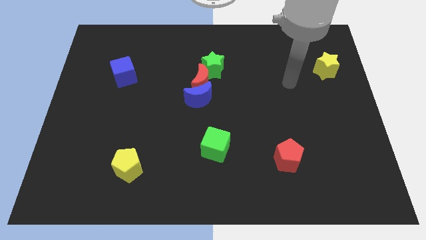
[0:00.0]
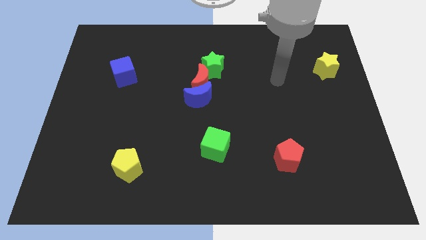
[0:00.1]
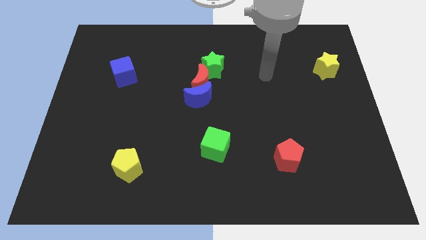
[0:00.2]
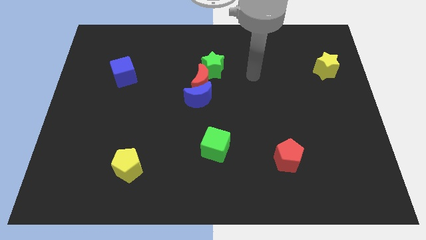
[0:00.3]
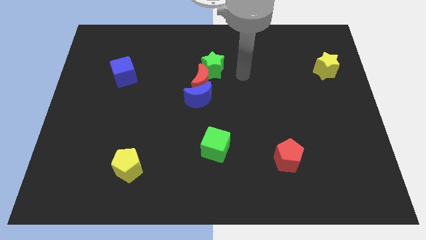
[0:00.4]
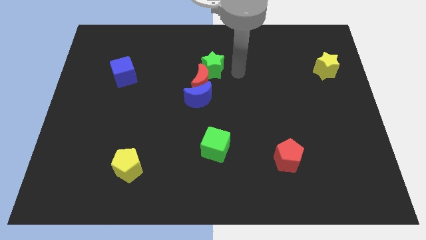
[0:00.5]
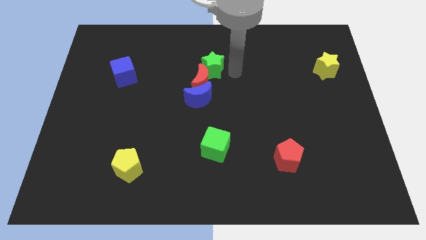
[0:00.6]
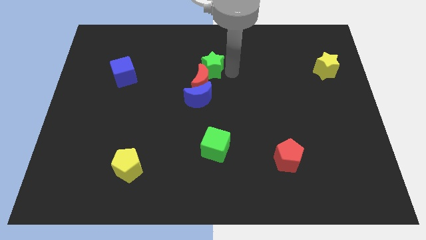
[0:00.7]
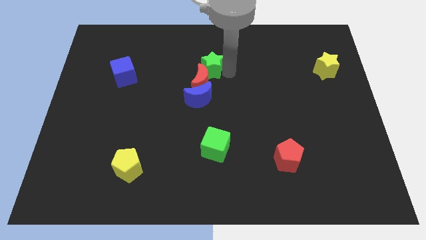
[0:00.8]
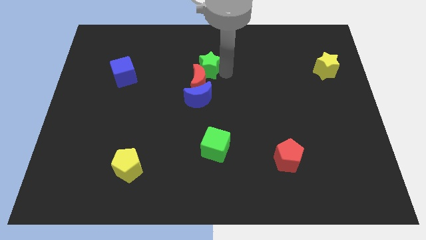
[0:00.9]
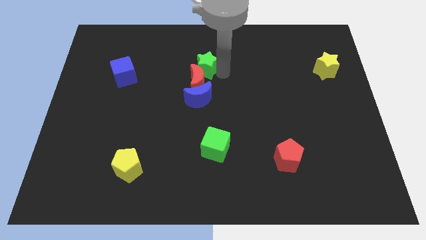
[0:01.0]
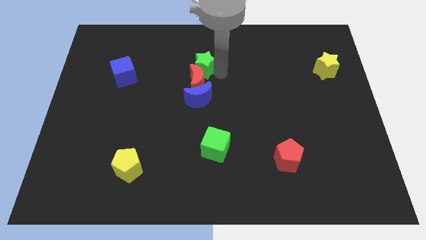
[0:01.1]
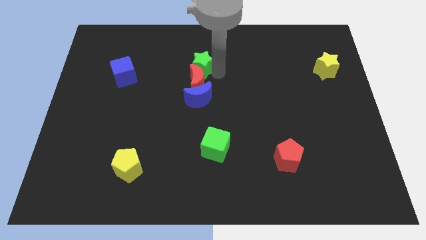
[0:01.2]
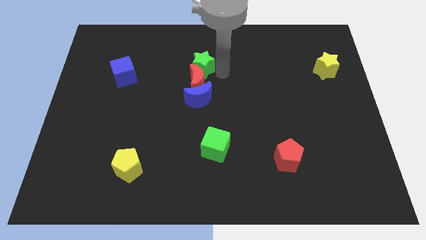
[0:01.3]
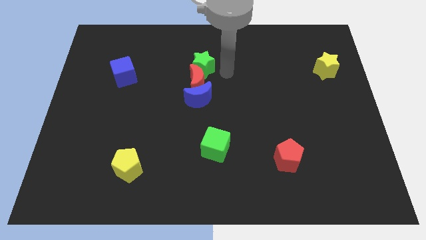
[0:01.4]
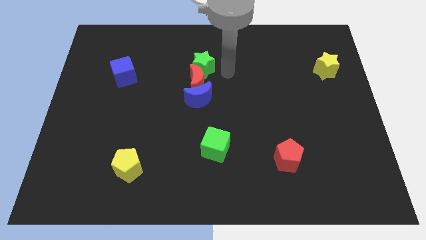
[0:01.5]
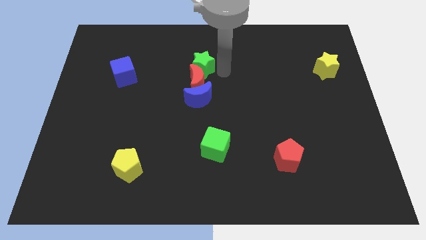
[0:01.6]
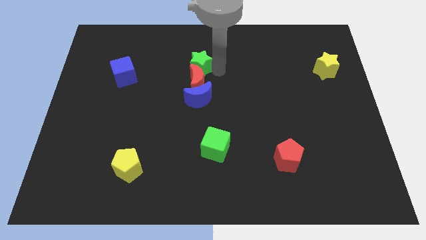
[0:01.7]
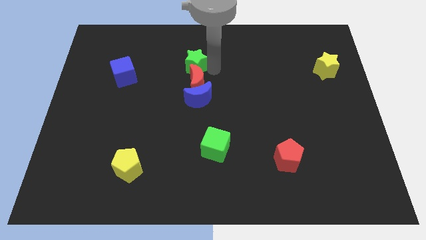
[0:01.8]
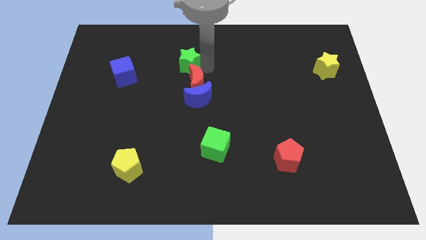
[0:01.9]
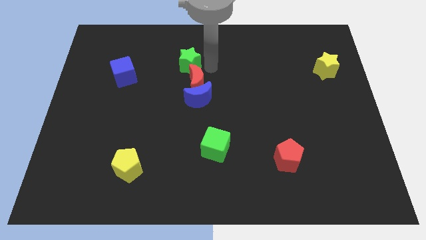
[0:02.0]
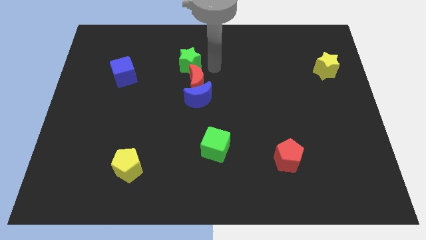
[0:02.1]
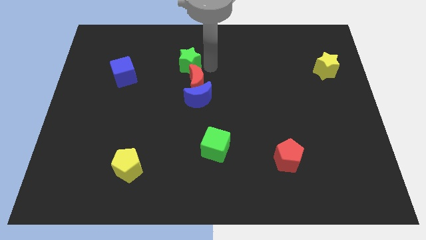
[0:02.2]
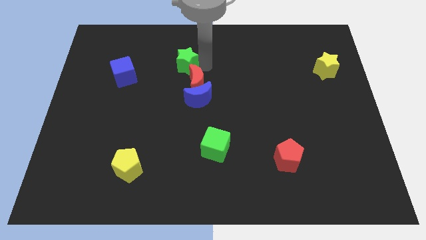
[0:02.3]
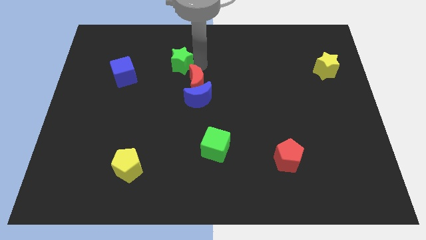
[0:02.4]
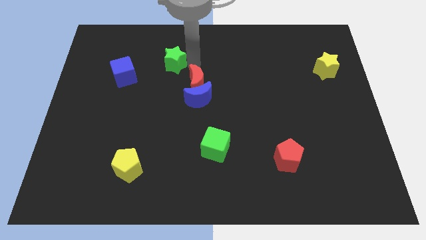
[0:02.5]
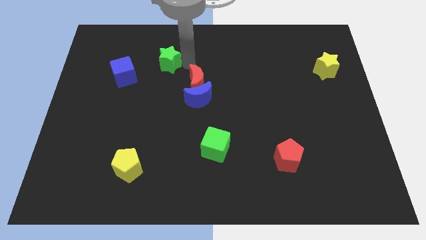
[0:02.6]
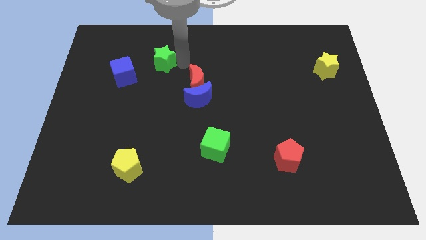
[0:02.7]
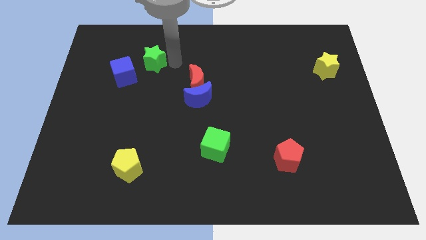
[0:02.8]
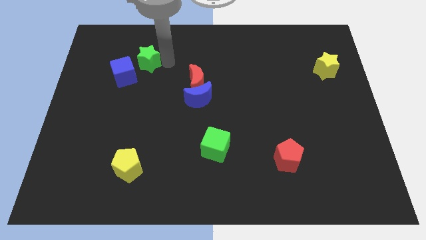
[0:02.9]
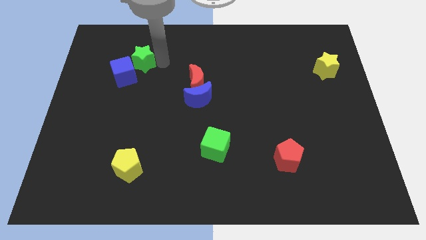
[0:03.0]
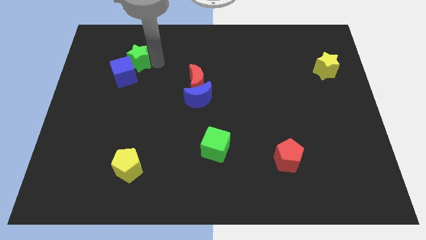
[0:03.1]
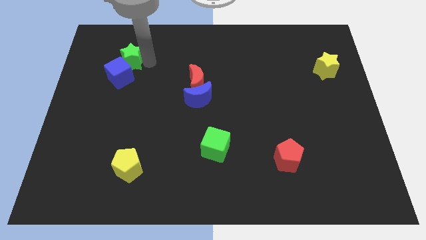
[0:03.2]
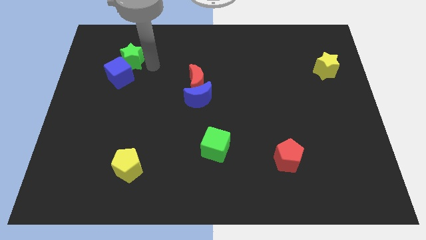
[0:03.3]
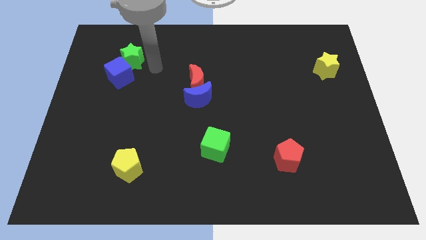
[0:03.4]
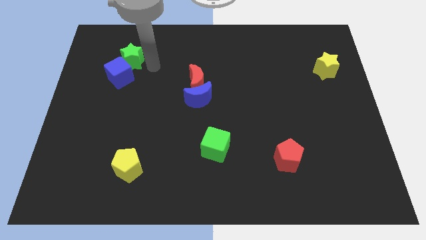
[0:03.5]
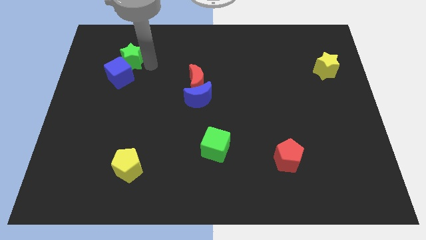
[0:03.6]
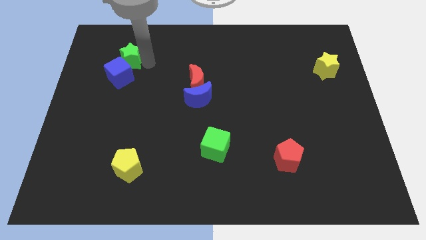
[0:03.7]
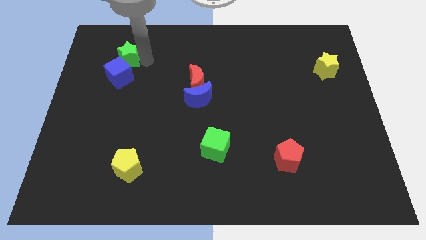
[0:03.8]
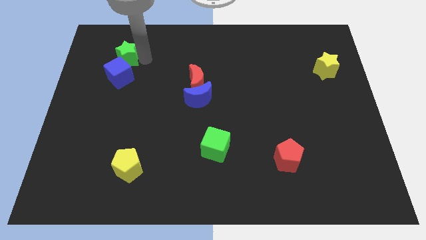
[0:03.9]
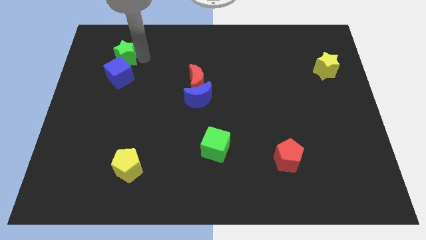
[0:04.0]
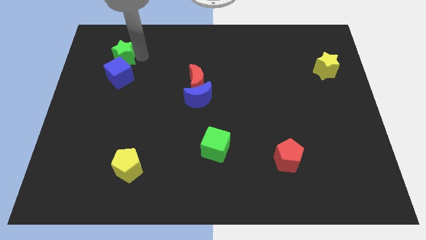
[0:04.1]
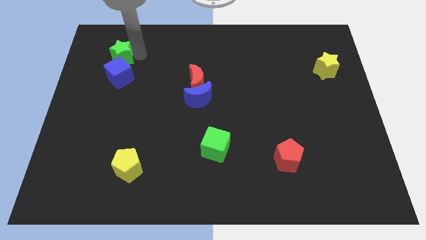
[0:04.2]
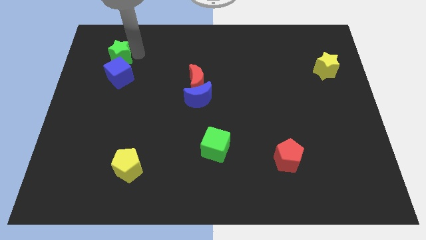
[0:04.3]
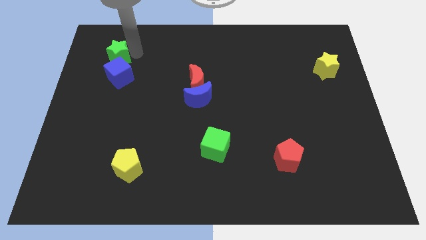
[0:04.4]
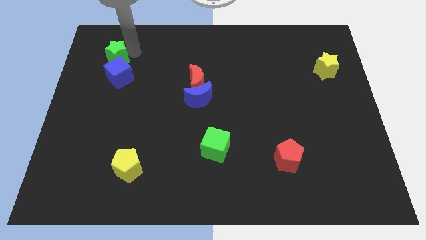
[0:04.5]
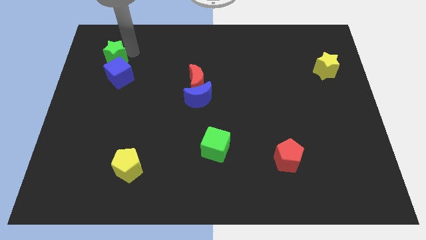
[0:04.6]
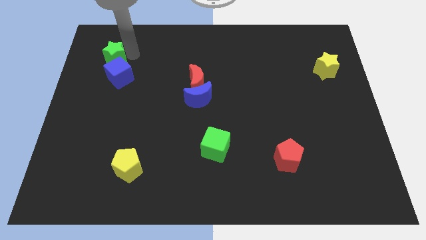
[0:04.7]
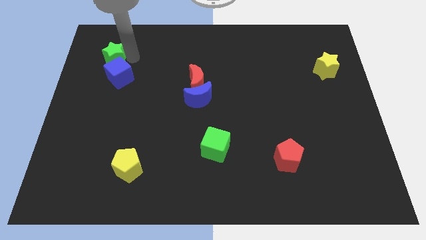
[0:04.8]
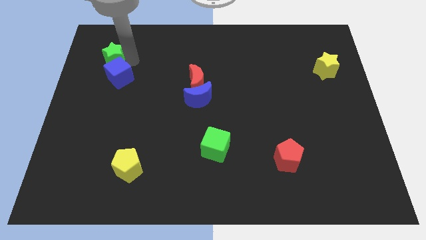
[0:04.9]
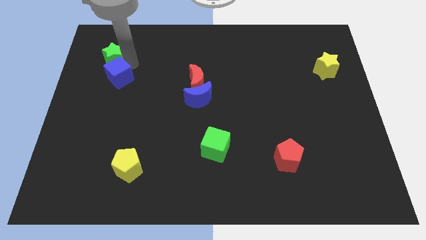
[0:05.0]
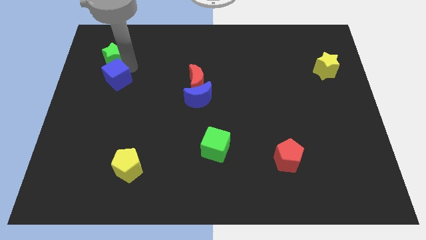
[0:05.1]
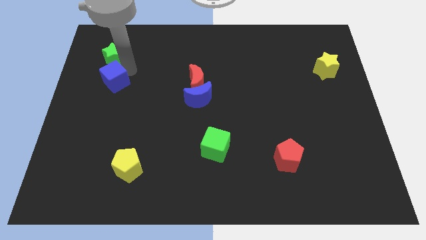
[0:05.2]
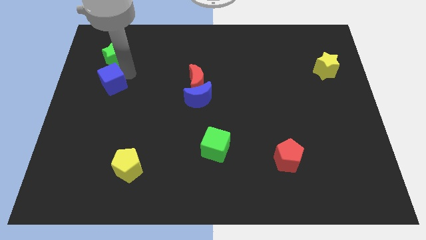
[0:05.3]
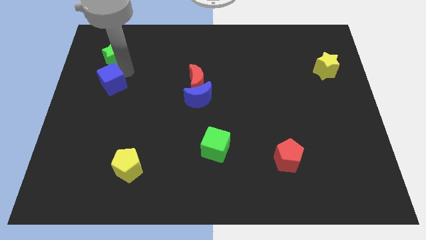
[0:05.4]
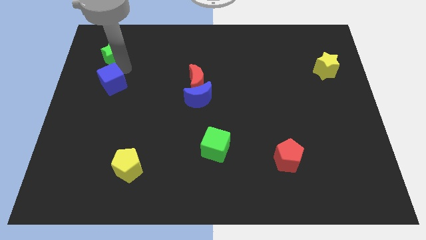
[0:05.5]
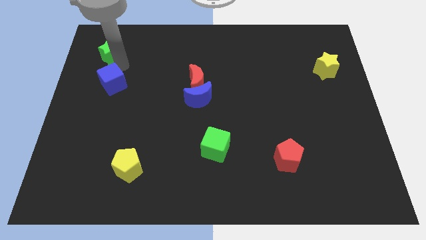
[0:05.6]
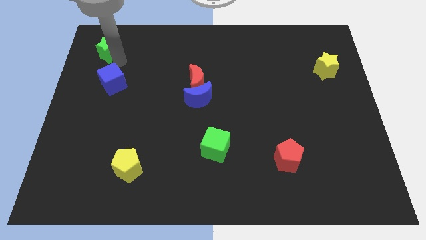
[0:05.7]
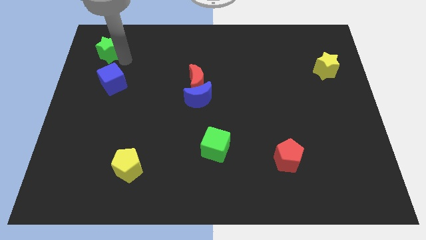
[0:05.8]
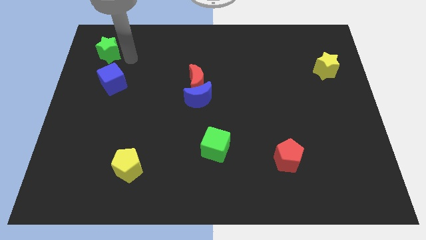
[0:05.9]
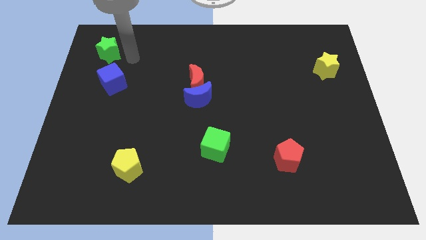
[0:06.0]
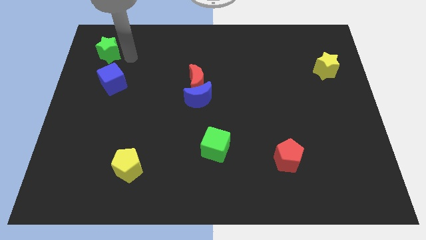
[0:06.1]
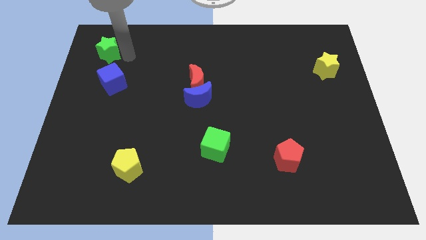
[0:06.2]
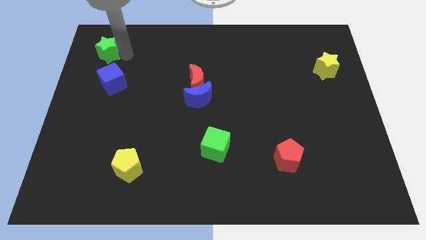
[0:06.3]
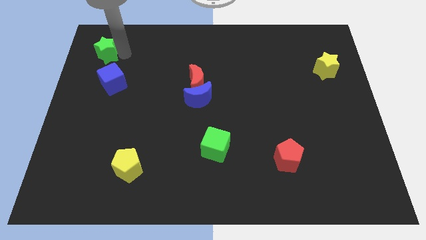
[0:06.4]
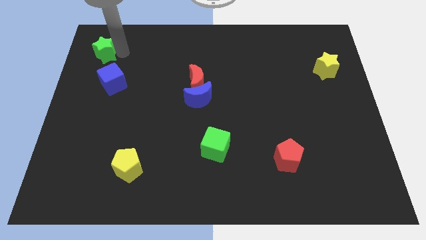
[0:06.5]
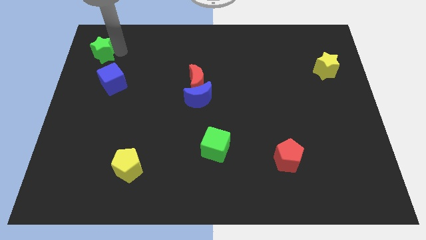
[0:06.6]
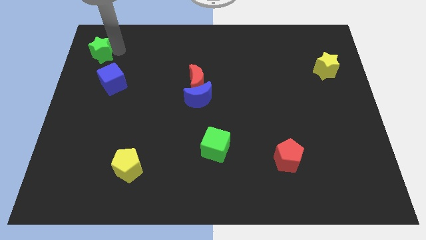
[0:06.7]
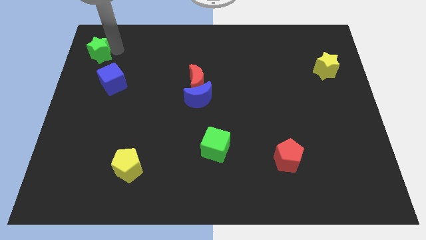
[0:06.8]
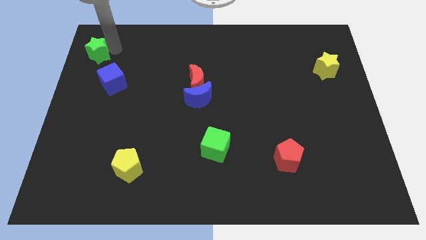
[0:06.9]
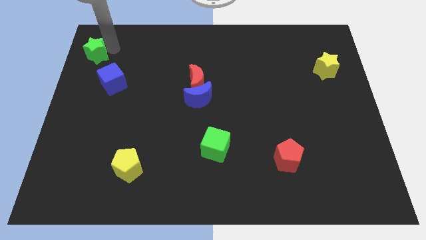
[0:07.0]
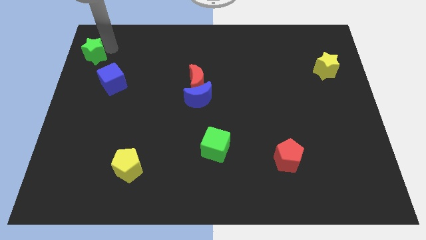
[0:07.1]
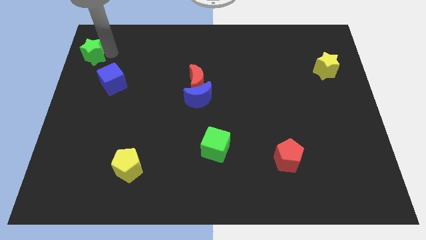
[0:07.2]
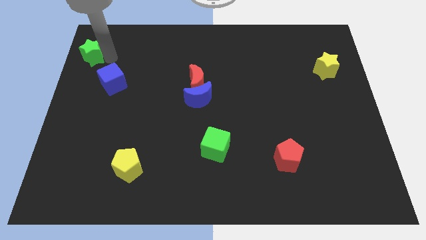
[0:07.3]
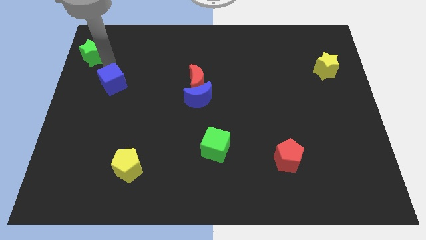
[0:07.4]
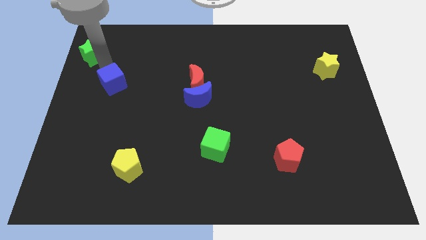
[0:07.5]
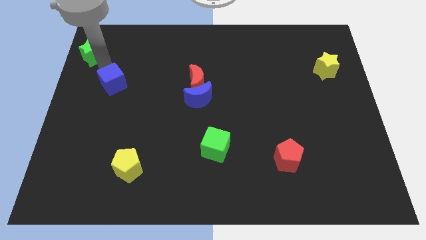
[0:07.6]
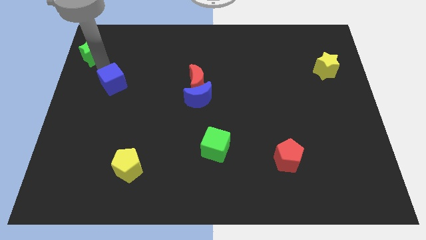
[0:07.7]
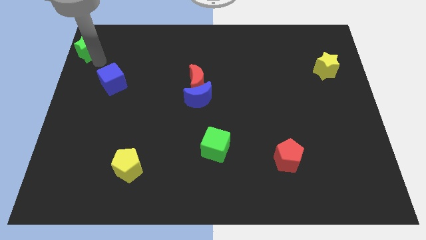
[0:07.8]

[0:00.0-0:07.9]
push the green star to the top left corner
